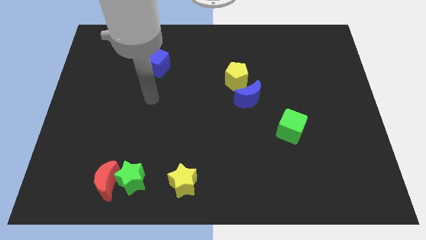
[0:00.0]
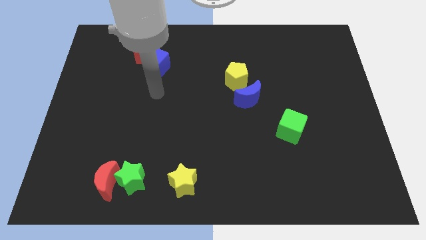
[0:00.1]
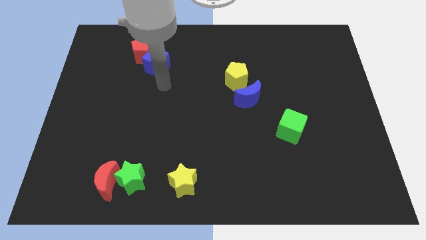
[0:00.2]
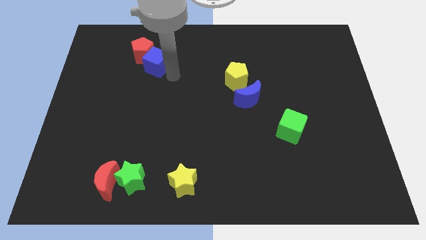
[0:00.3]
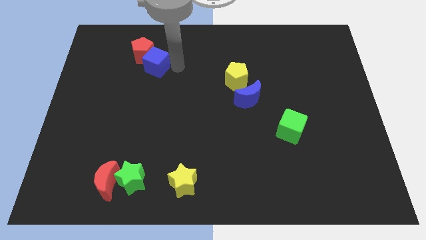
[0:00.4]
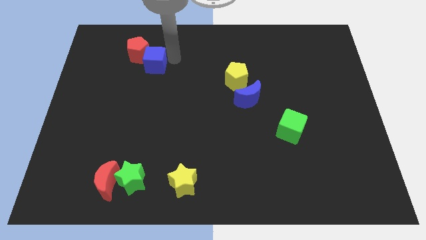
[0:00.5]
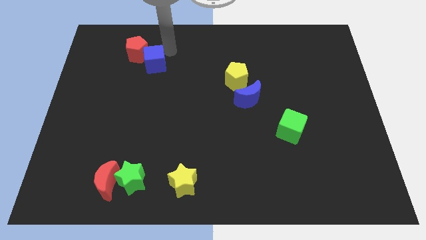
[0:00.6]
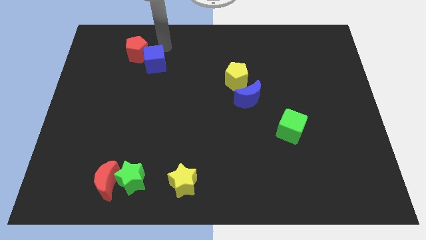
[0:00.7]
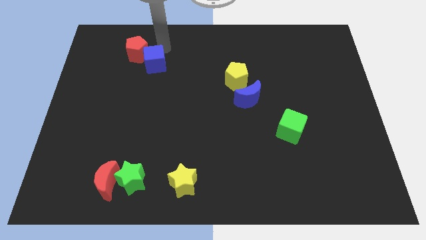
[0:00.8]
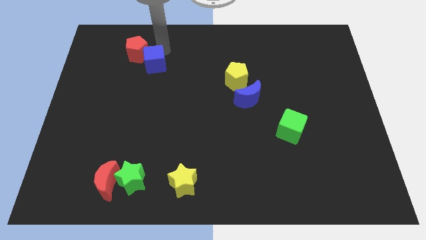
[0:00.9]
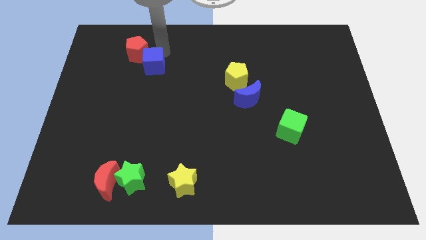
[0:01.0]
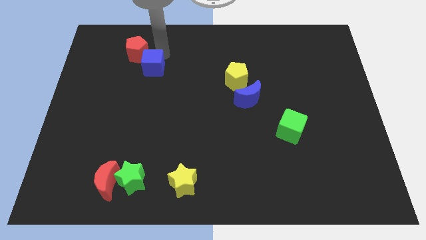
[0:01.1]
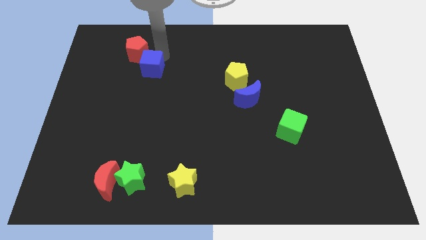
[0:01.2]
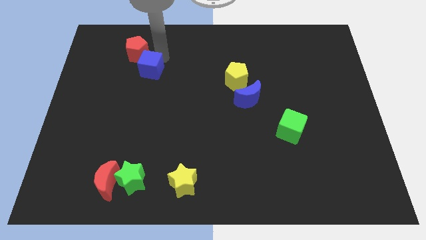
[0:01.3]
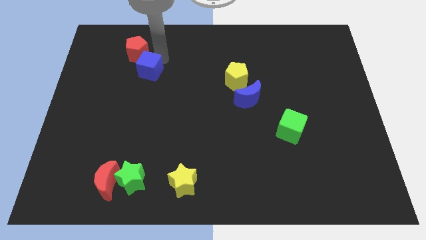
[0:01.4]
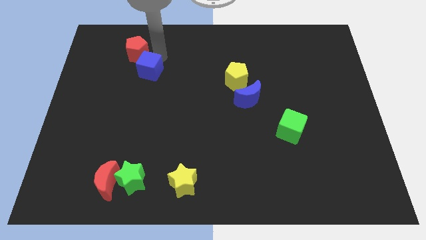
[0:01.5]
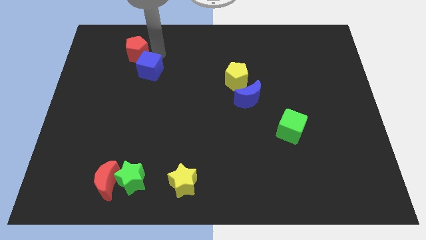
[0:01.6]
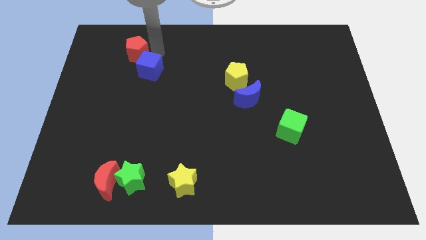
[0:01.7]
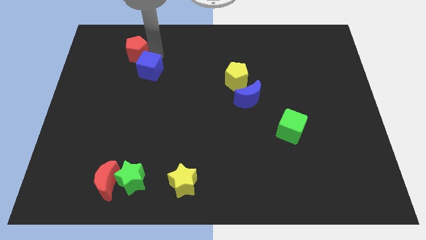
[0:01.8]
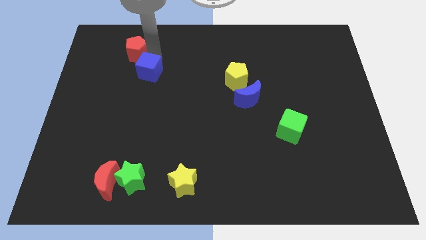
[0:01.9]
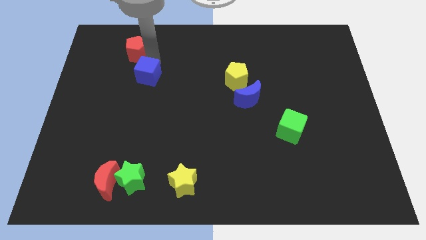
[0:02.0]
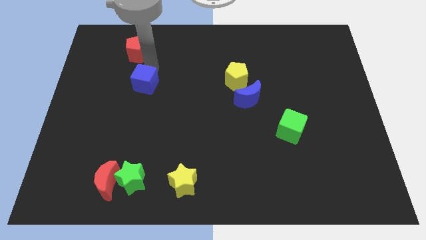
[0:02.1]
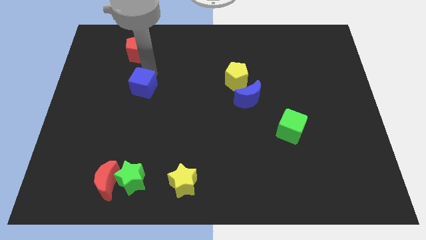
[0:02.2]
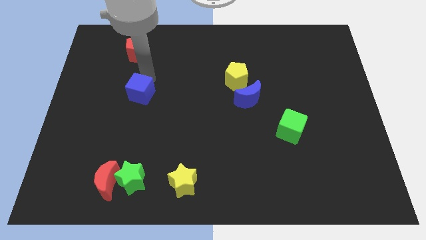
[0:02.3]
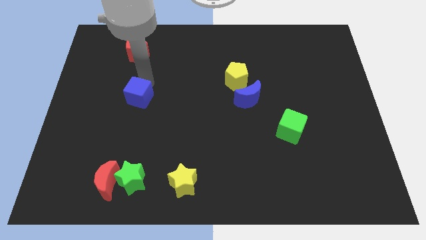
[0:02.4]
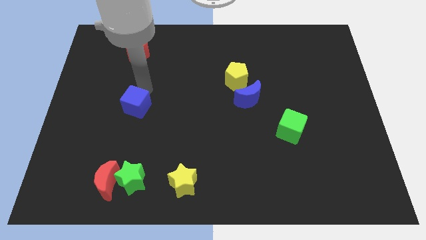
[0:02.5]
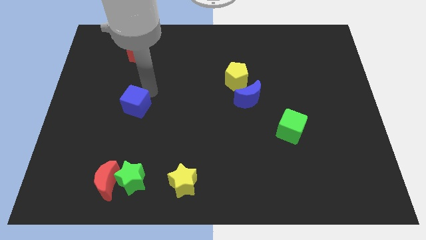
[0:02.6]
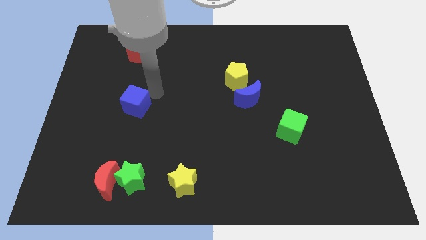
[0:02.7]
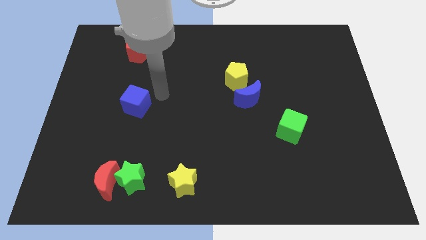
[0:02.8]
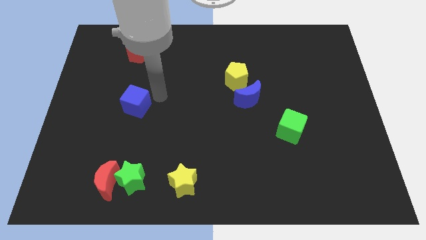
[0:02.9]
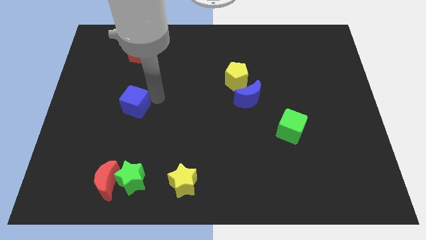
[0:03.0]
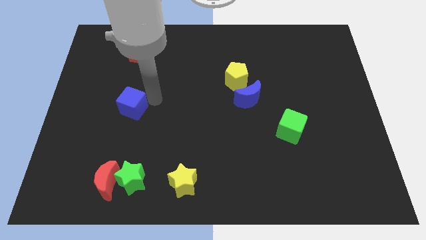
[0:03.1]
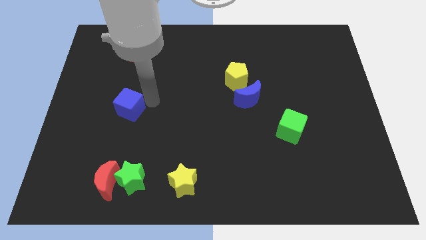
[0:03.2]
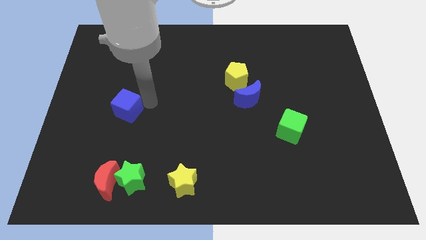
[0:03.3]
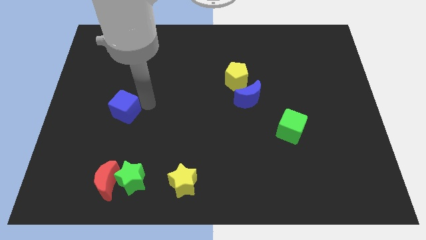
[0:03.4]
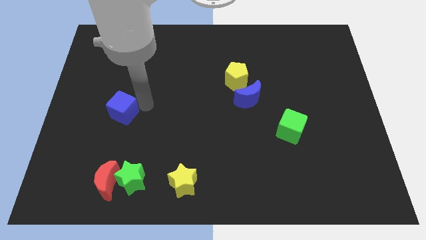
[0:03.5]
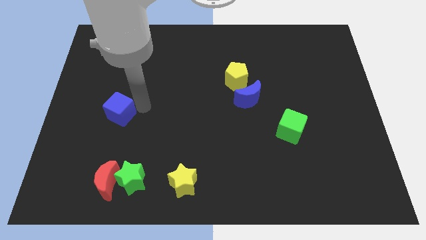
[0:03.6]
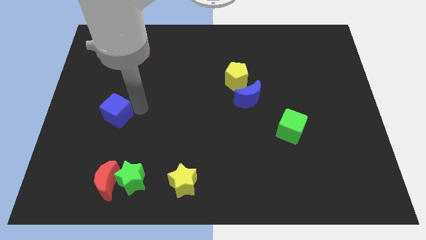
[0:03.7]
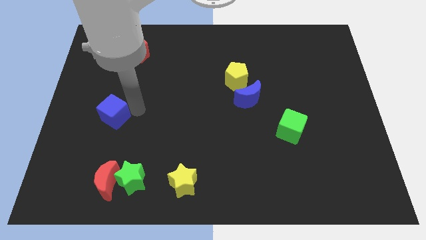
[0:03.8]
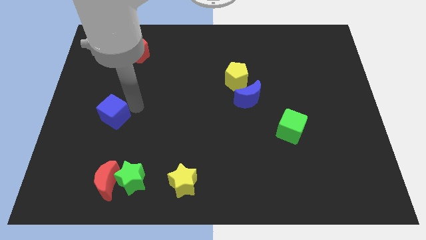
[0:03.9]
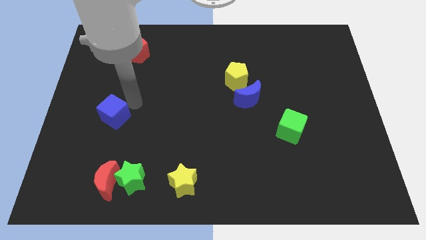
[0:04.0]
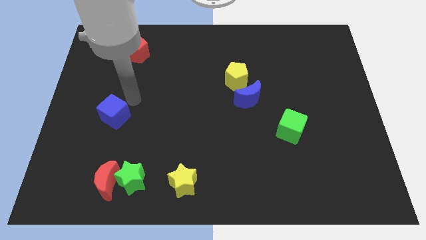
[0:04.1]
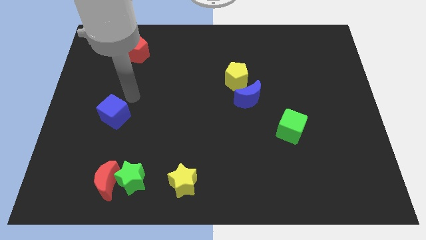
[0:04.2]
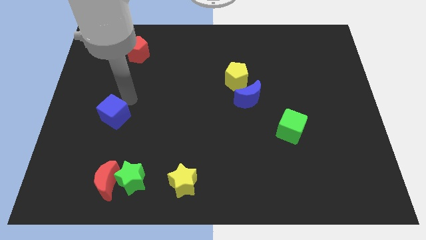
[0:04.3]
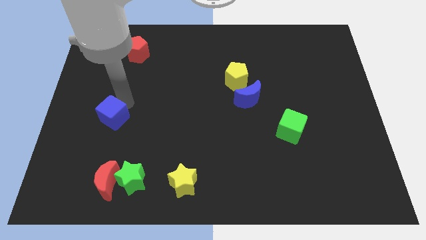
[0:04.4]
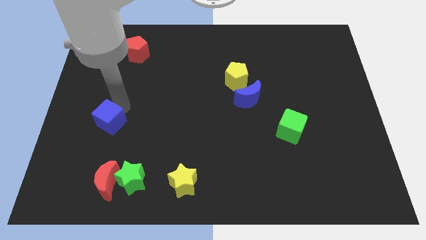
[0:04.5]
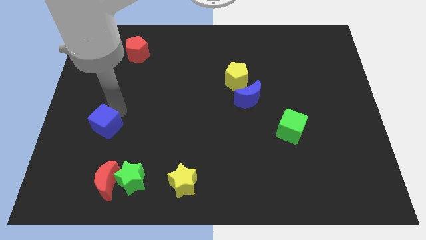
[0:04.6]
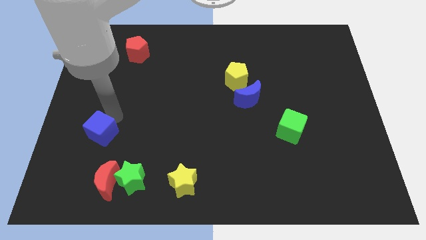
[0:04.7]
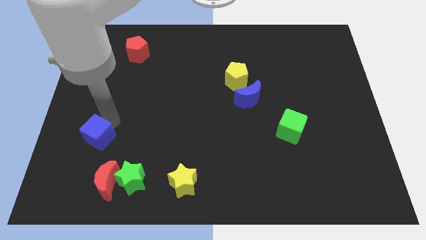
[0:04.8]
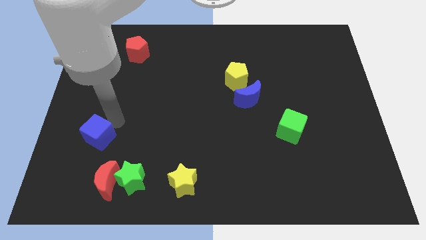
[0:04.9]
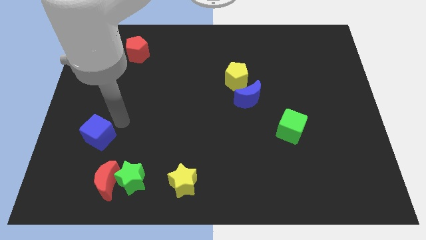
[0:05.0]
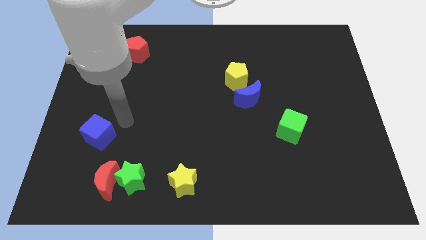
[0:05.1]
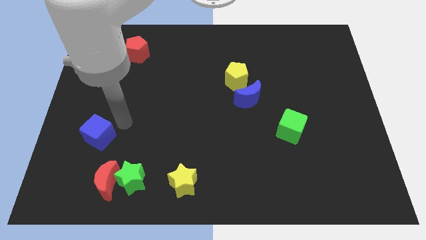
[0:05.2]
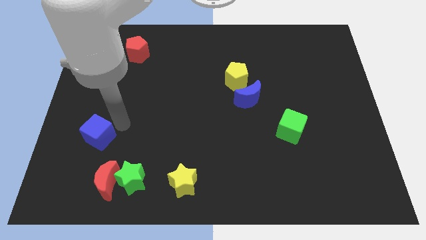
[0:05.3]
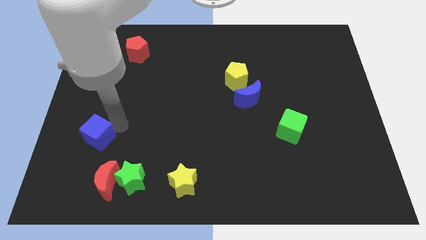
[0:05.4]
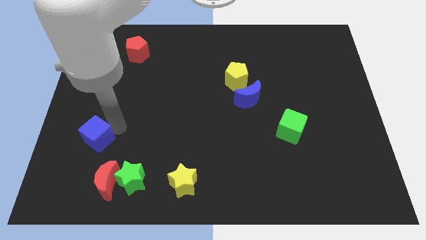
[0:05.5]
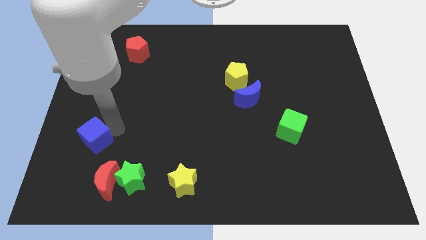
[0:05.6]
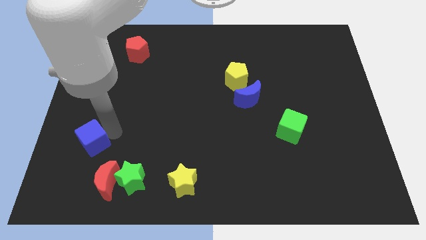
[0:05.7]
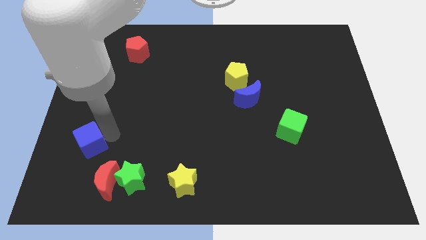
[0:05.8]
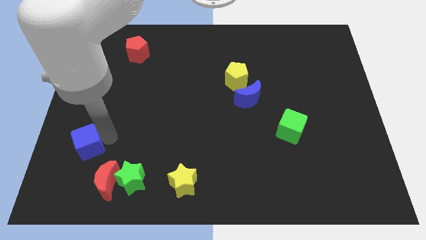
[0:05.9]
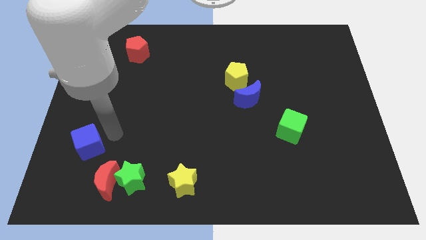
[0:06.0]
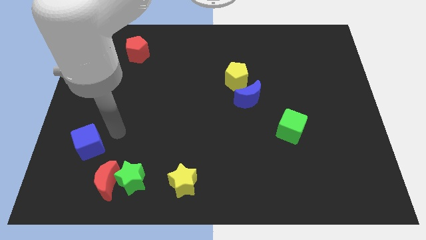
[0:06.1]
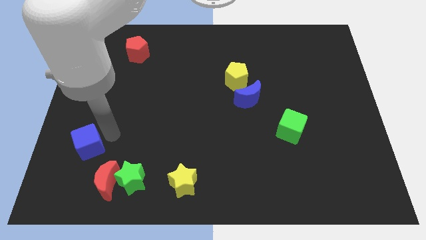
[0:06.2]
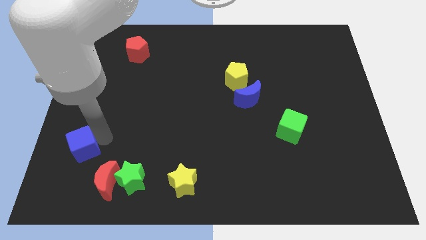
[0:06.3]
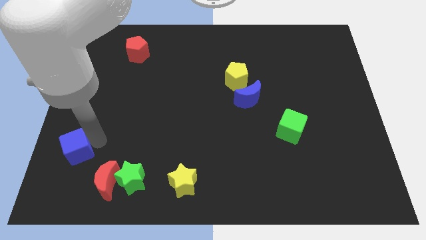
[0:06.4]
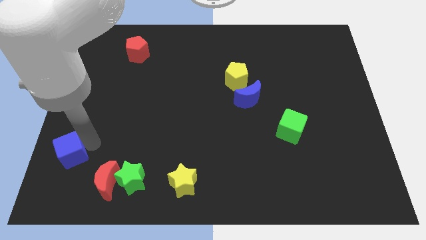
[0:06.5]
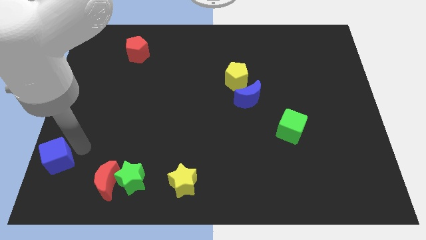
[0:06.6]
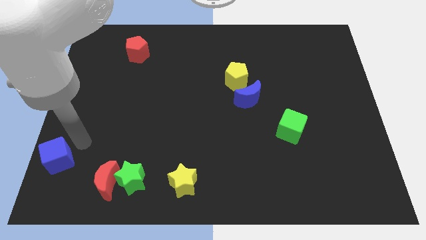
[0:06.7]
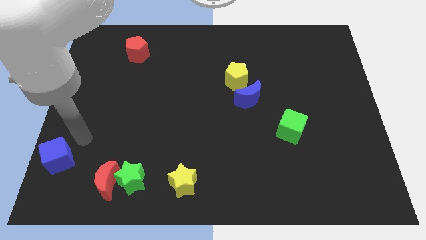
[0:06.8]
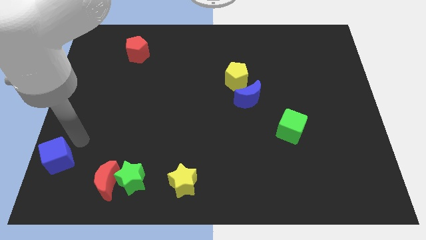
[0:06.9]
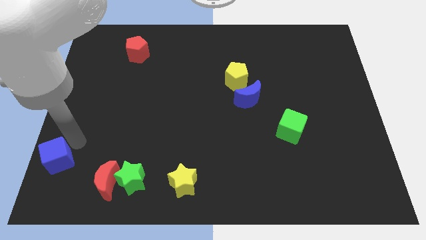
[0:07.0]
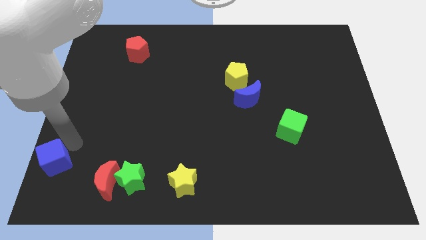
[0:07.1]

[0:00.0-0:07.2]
move the blue cube to the bottom left

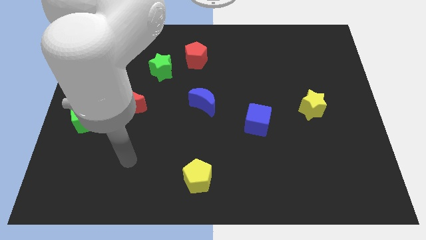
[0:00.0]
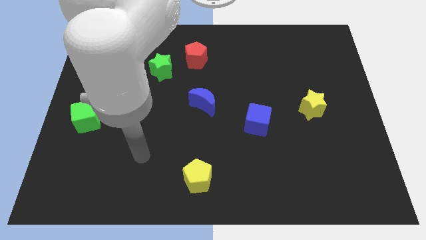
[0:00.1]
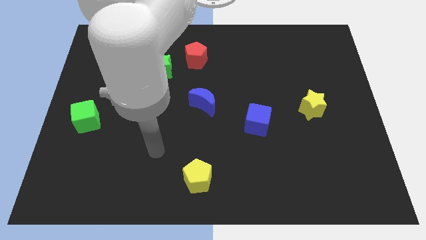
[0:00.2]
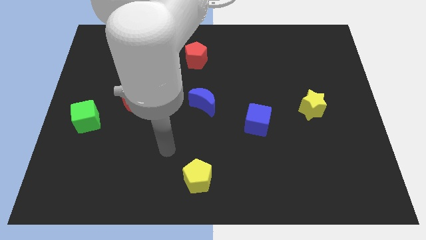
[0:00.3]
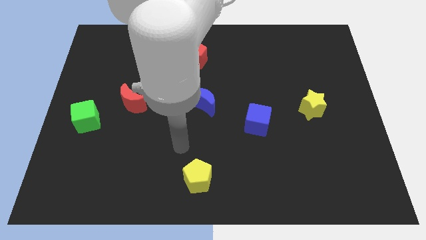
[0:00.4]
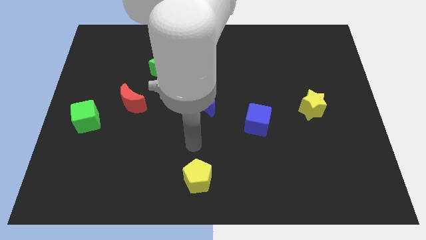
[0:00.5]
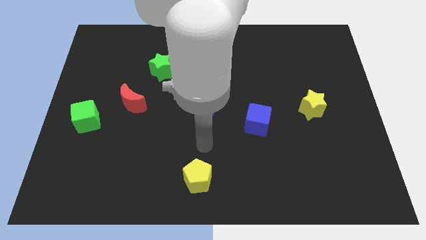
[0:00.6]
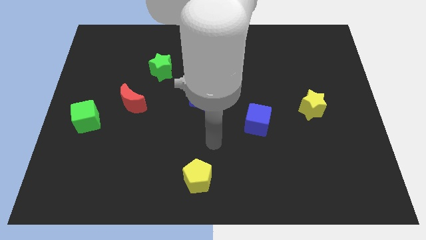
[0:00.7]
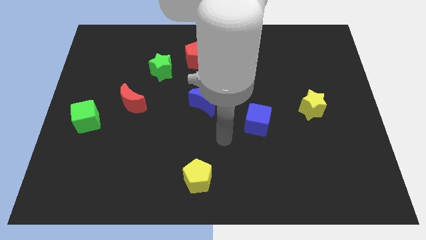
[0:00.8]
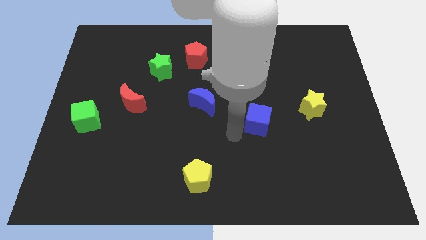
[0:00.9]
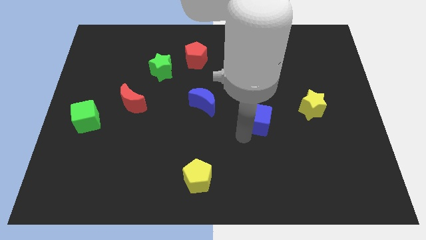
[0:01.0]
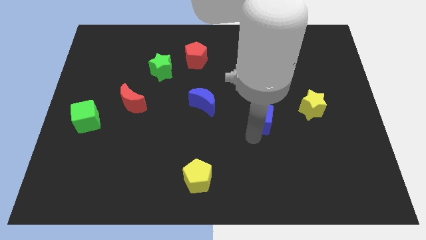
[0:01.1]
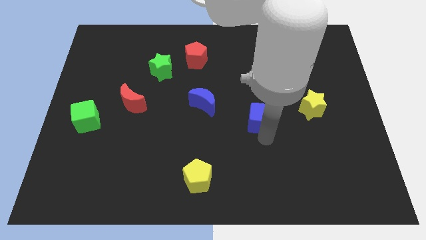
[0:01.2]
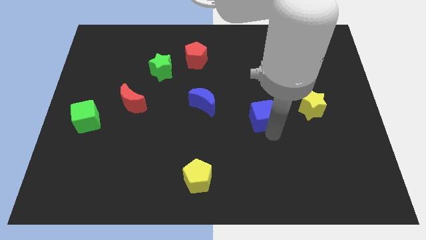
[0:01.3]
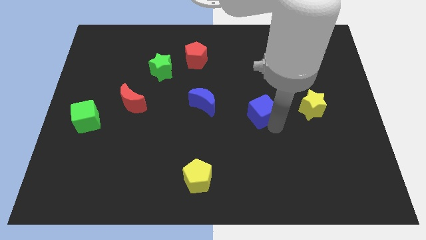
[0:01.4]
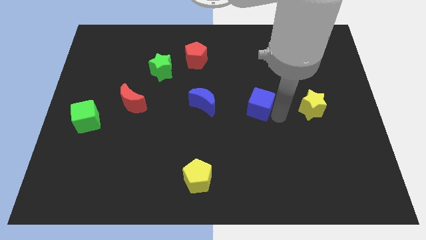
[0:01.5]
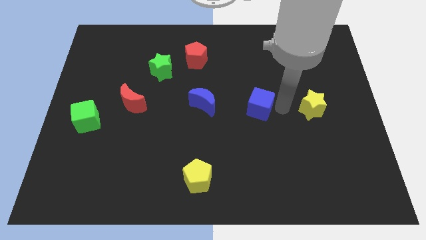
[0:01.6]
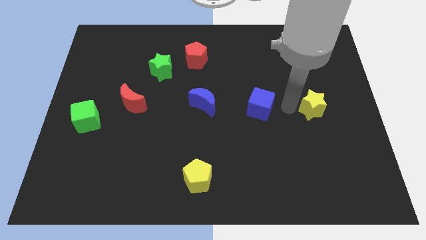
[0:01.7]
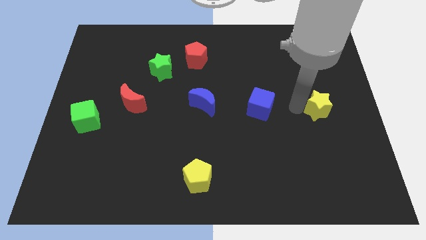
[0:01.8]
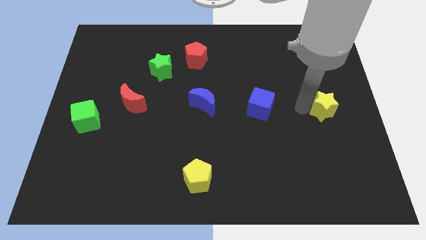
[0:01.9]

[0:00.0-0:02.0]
put the yellow star to the right side of the board
